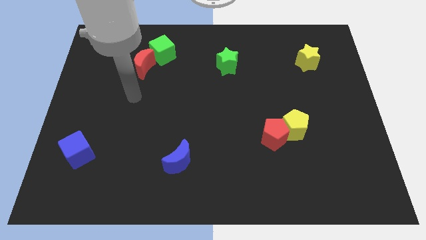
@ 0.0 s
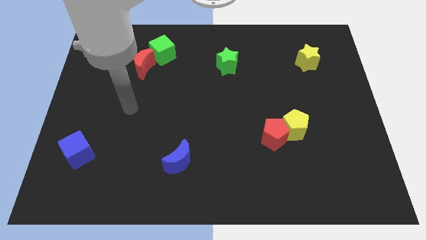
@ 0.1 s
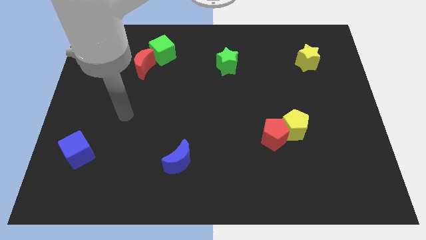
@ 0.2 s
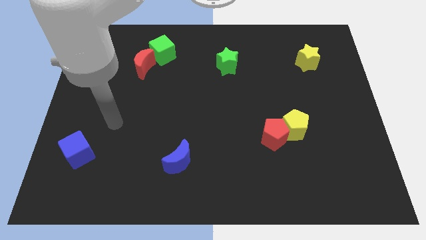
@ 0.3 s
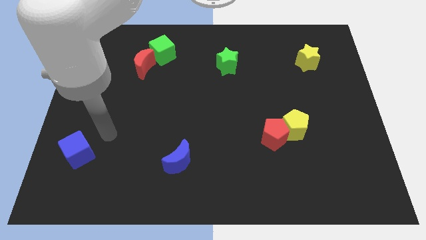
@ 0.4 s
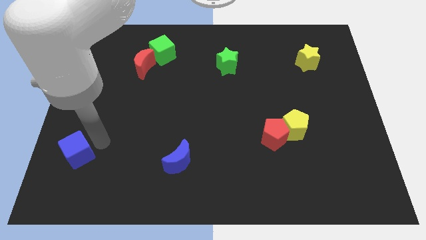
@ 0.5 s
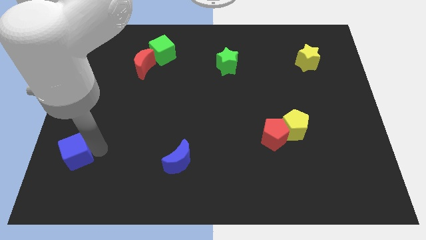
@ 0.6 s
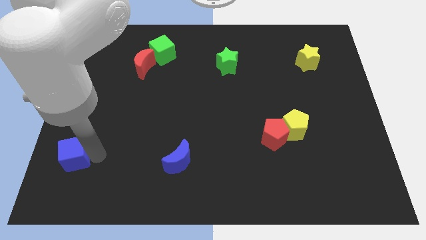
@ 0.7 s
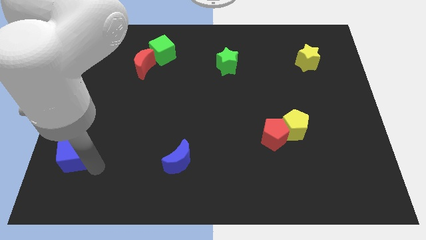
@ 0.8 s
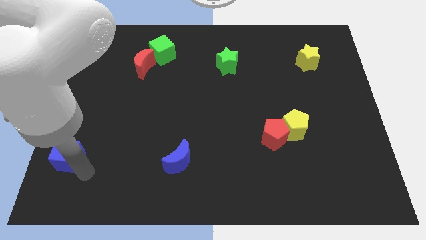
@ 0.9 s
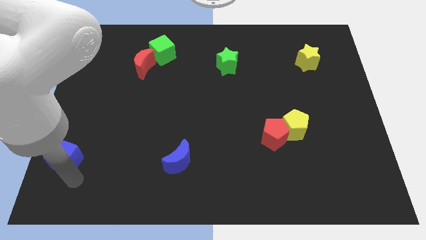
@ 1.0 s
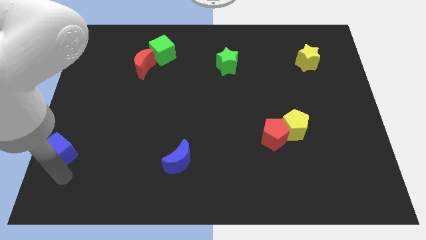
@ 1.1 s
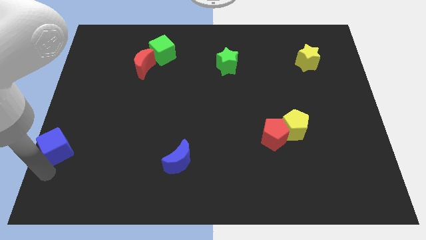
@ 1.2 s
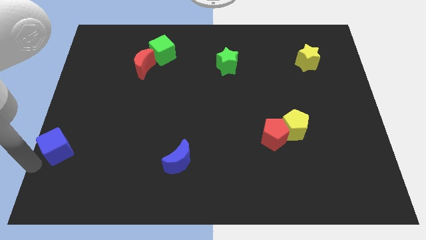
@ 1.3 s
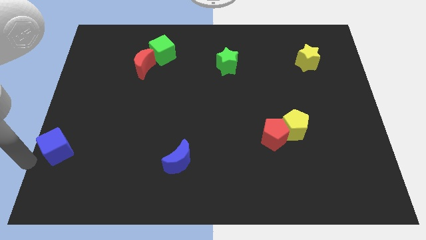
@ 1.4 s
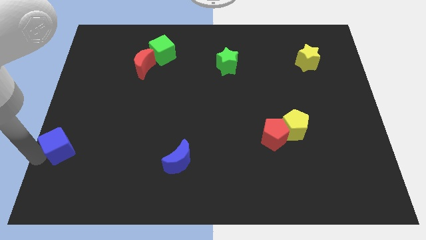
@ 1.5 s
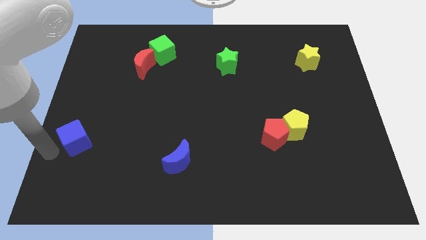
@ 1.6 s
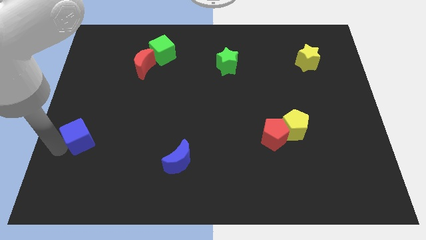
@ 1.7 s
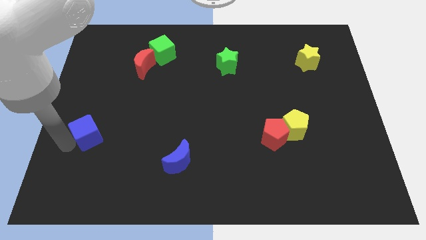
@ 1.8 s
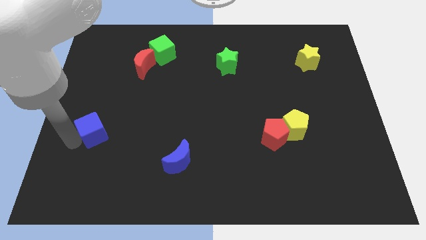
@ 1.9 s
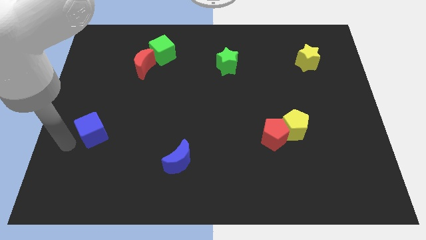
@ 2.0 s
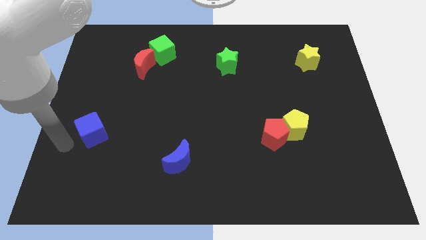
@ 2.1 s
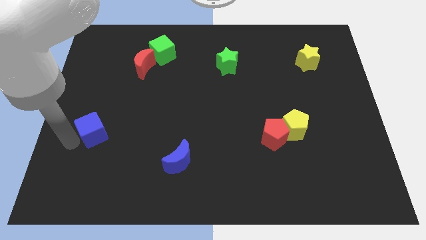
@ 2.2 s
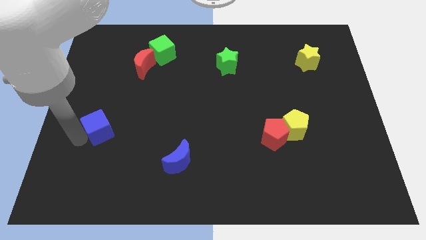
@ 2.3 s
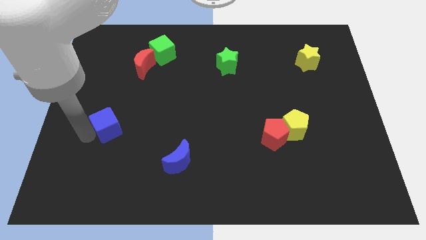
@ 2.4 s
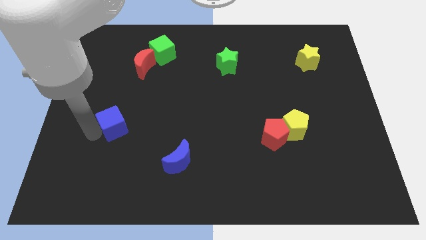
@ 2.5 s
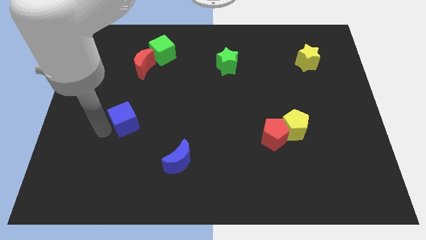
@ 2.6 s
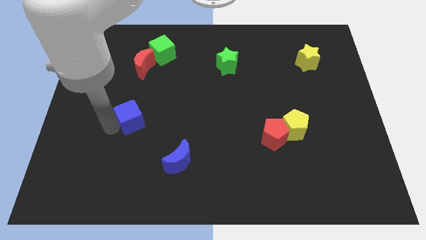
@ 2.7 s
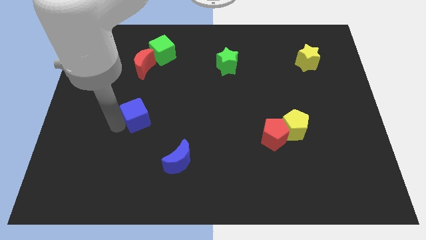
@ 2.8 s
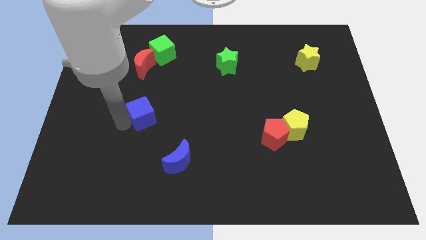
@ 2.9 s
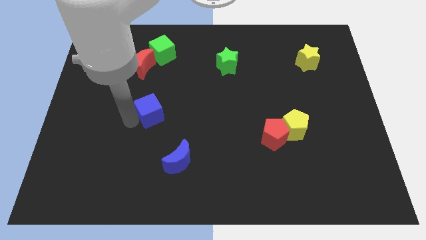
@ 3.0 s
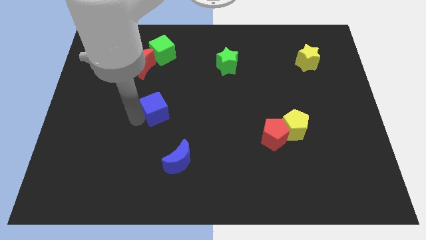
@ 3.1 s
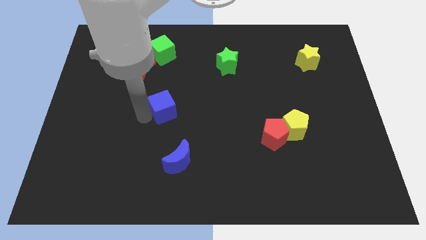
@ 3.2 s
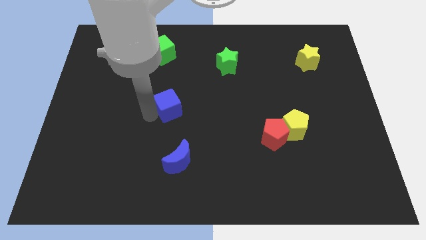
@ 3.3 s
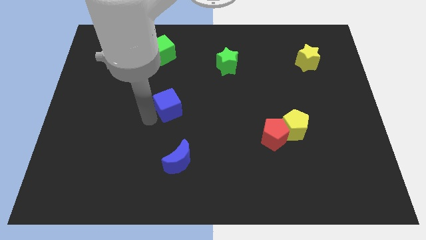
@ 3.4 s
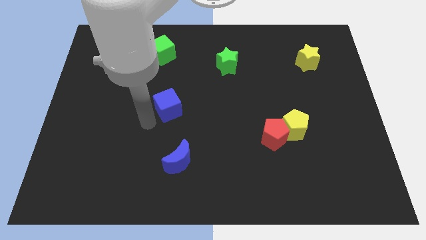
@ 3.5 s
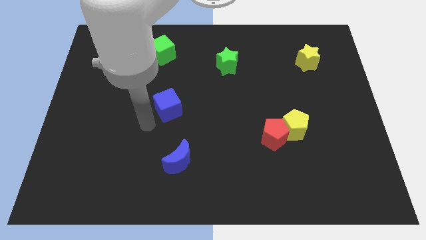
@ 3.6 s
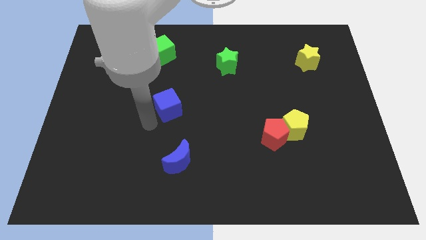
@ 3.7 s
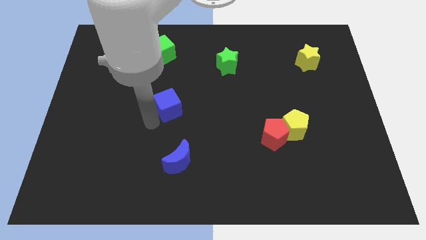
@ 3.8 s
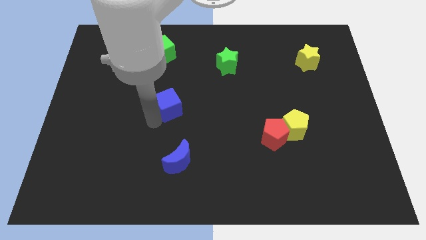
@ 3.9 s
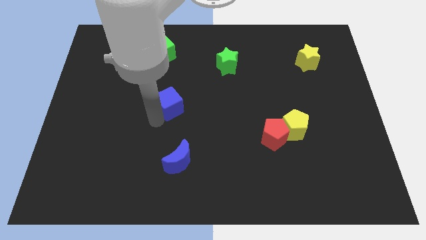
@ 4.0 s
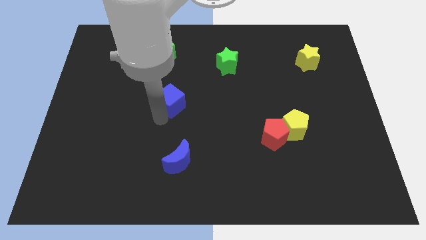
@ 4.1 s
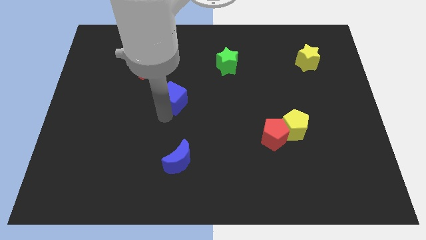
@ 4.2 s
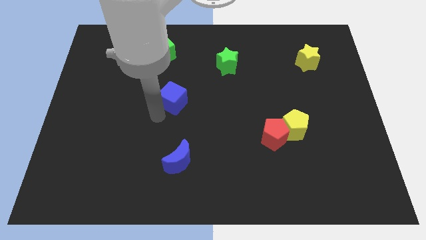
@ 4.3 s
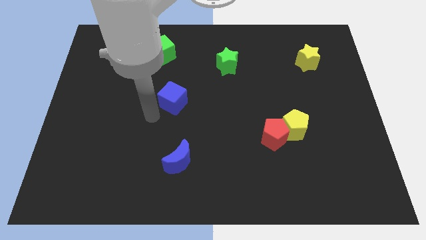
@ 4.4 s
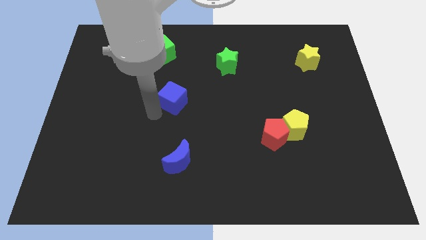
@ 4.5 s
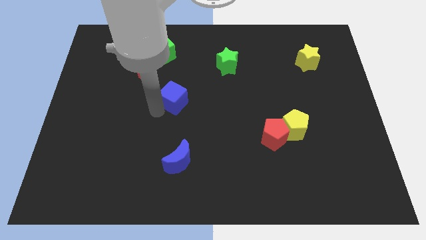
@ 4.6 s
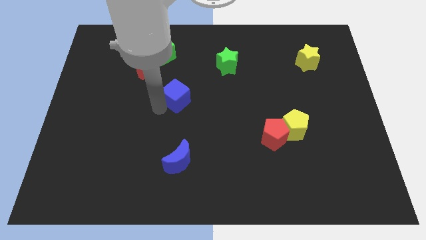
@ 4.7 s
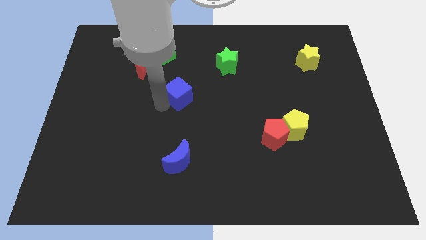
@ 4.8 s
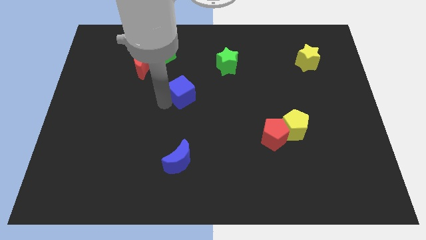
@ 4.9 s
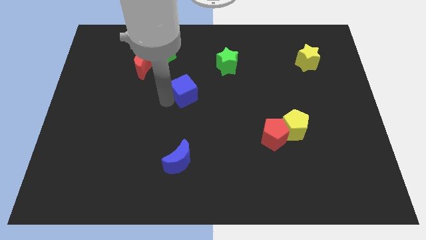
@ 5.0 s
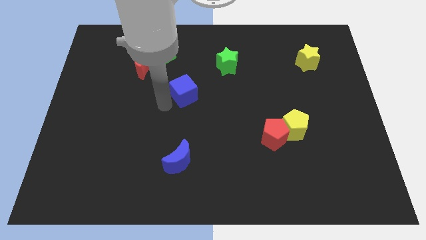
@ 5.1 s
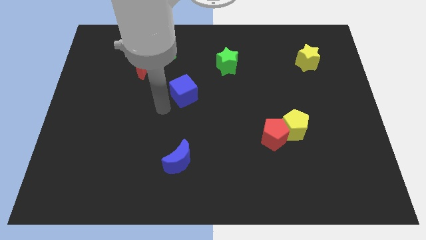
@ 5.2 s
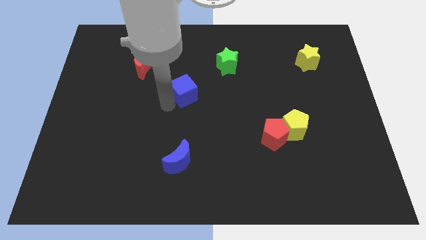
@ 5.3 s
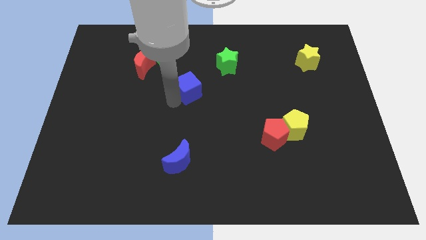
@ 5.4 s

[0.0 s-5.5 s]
slide the blue cube to the bottom left of the green star

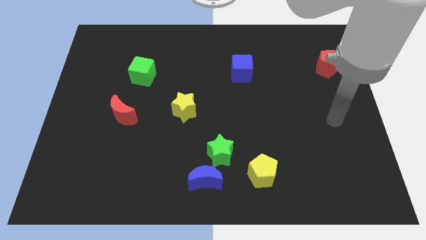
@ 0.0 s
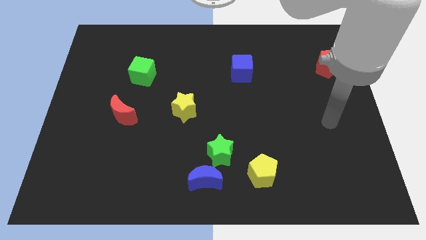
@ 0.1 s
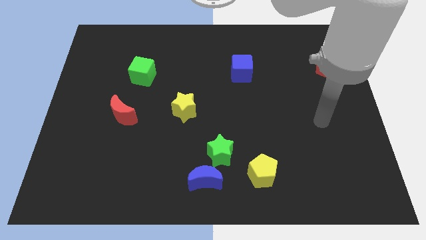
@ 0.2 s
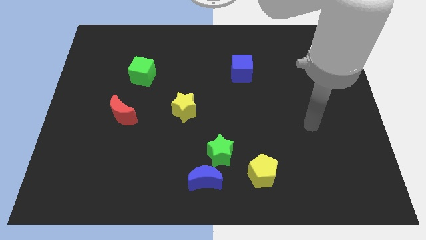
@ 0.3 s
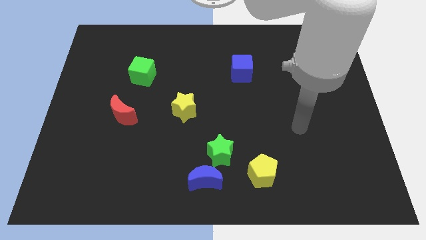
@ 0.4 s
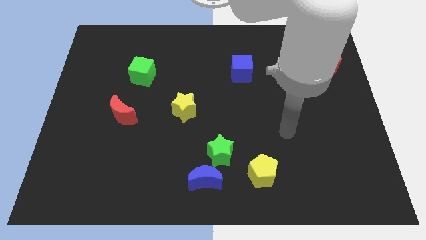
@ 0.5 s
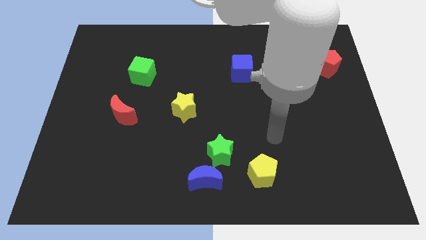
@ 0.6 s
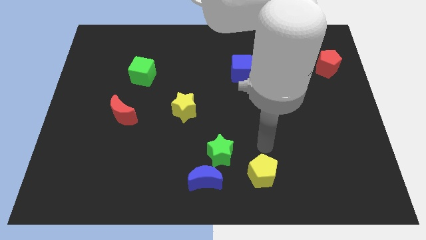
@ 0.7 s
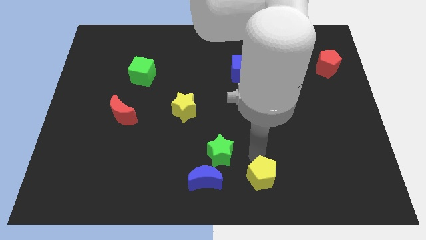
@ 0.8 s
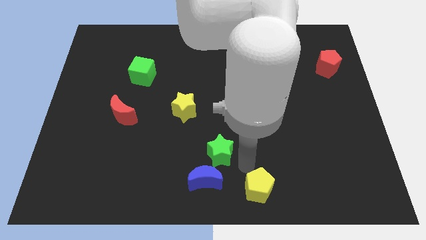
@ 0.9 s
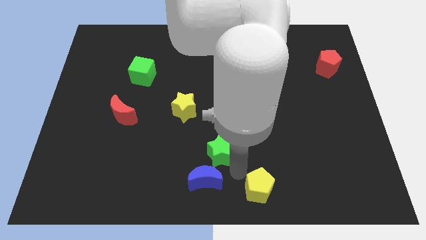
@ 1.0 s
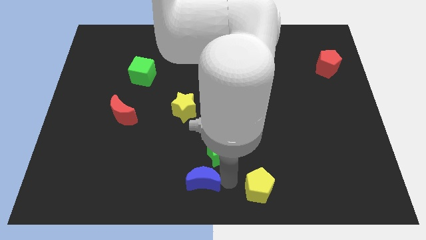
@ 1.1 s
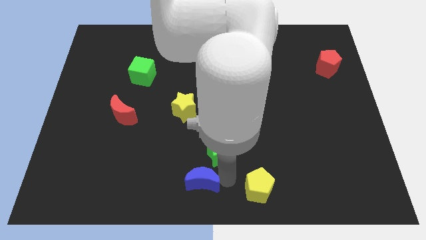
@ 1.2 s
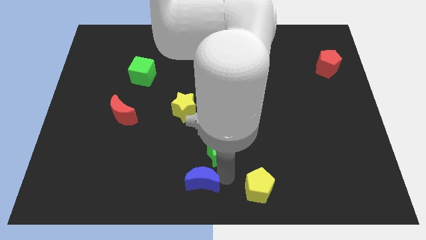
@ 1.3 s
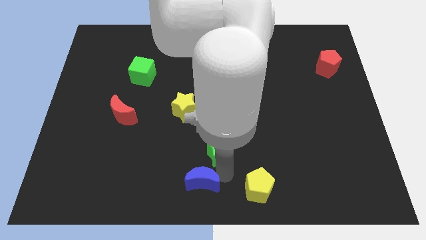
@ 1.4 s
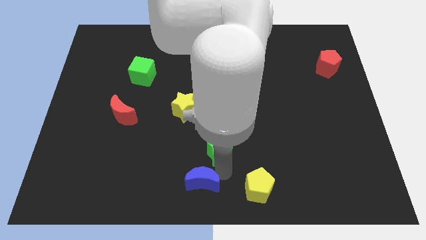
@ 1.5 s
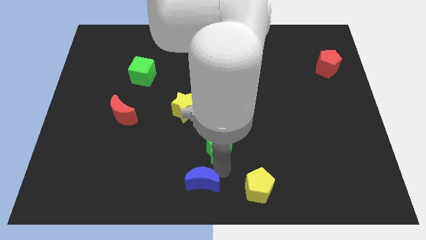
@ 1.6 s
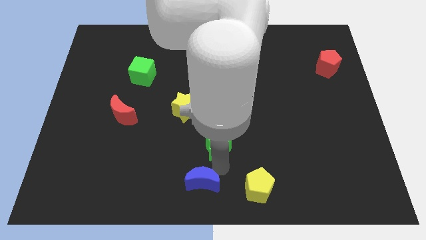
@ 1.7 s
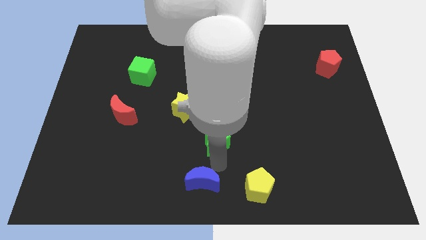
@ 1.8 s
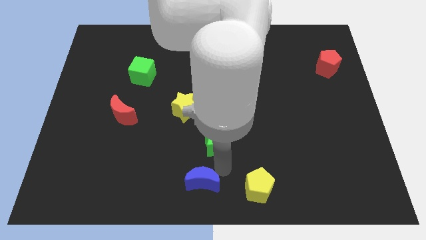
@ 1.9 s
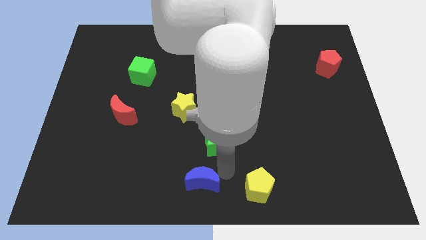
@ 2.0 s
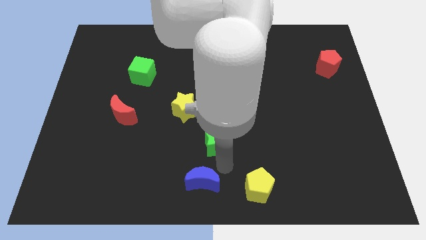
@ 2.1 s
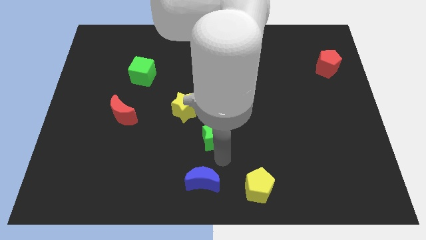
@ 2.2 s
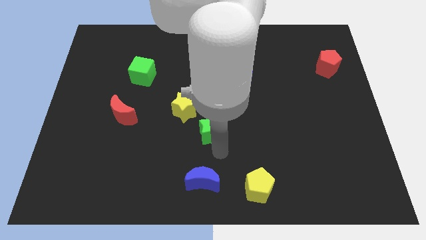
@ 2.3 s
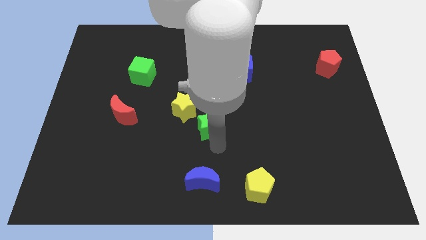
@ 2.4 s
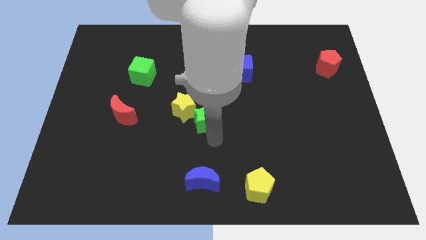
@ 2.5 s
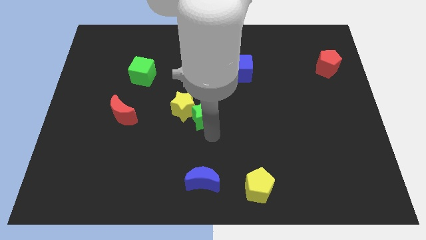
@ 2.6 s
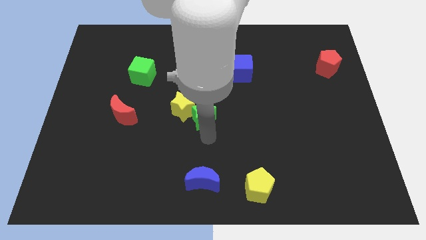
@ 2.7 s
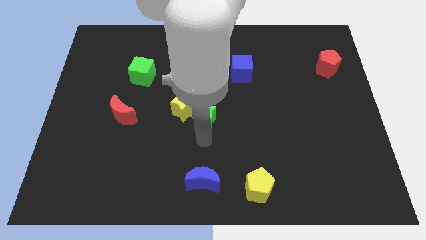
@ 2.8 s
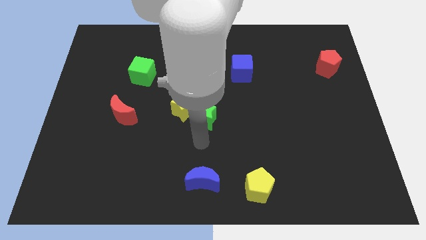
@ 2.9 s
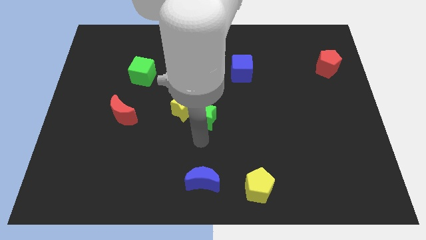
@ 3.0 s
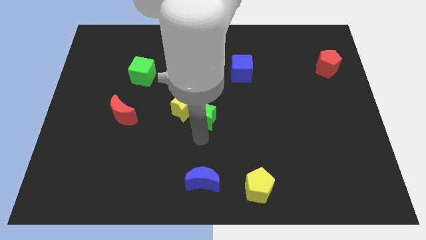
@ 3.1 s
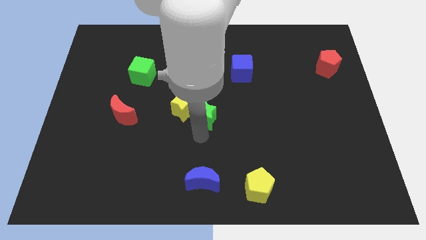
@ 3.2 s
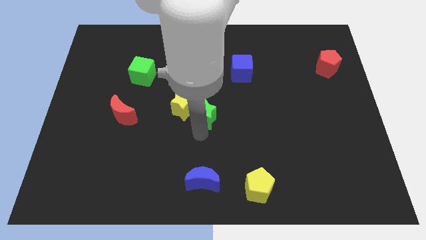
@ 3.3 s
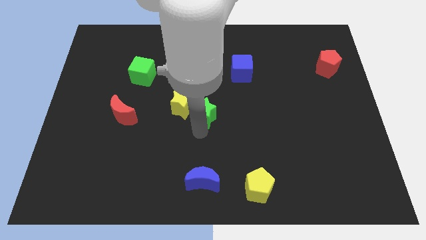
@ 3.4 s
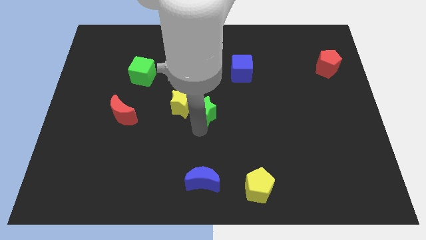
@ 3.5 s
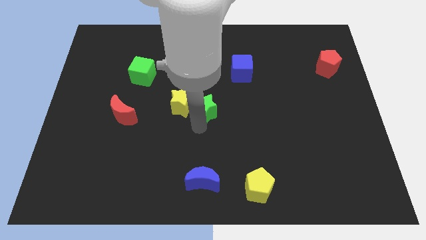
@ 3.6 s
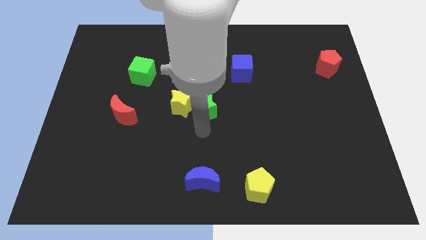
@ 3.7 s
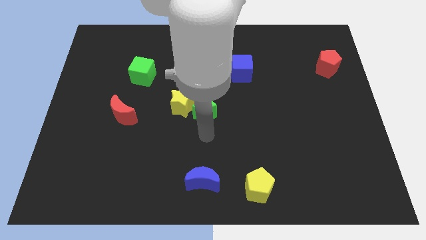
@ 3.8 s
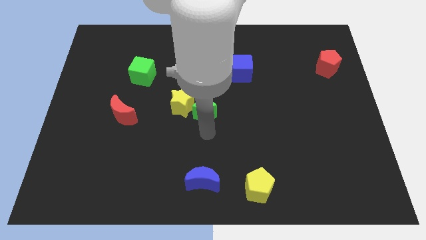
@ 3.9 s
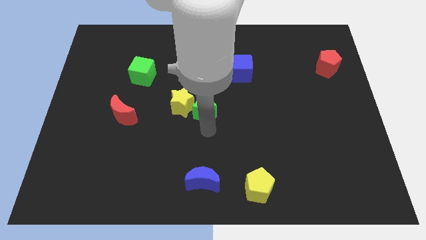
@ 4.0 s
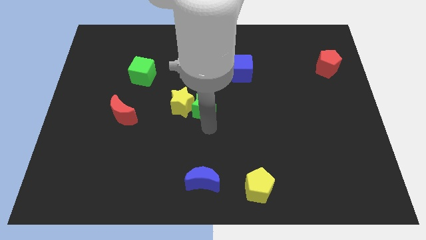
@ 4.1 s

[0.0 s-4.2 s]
push the green star to the top right of the yellow star
